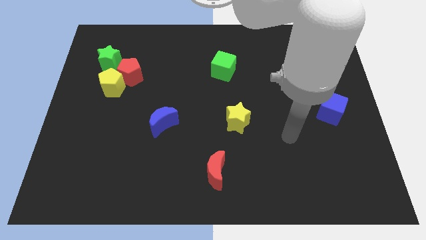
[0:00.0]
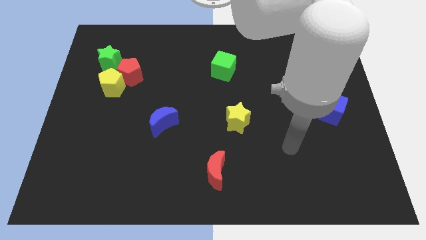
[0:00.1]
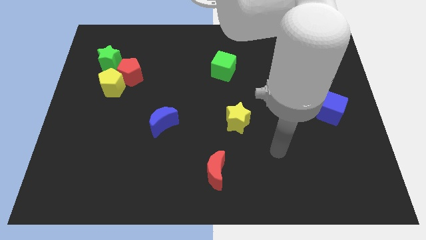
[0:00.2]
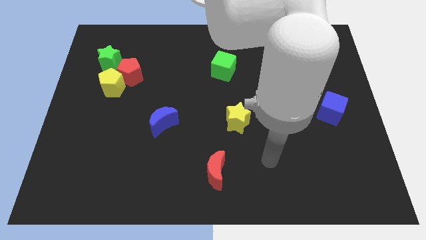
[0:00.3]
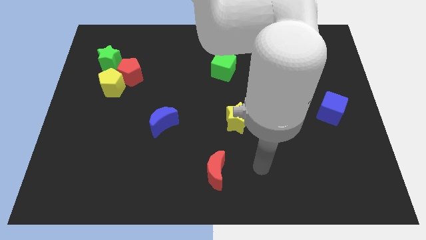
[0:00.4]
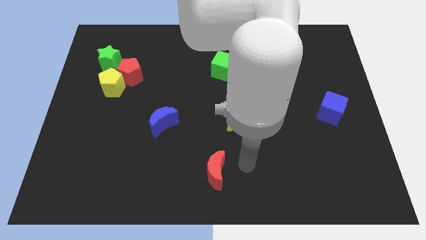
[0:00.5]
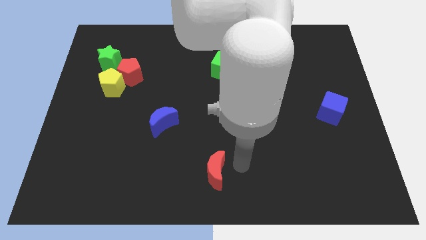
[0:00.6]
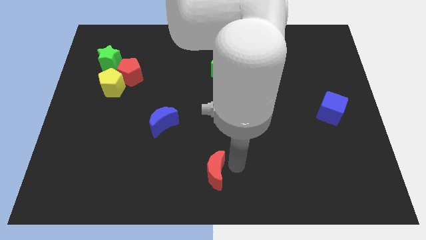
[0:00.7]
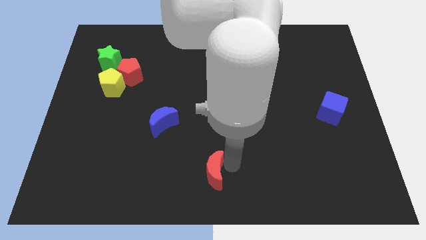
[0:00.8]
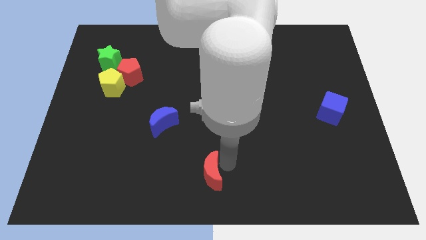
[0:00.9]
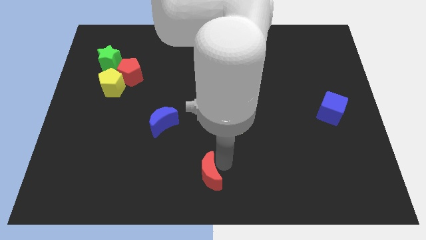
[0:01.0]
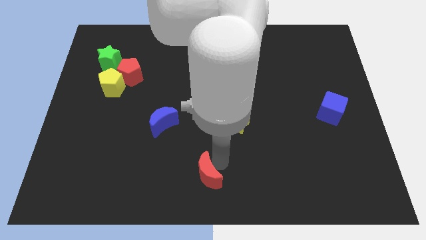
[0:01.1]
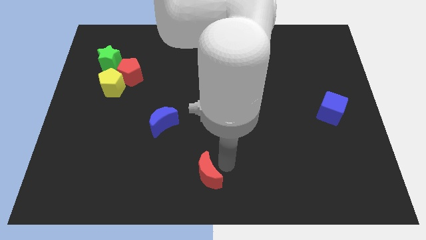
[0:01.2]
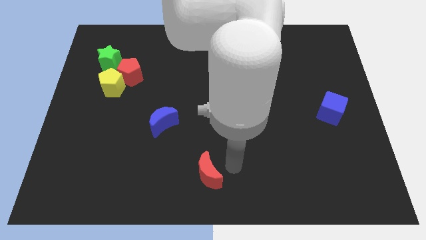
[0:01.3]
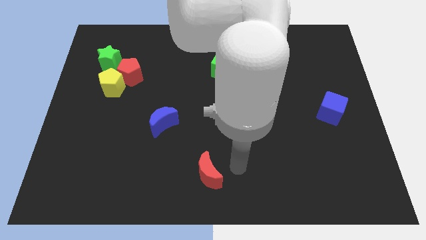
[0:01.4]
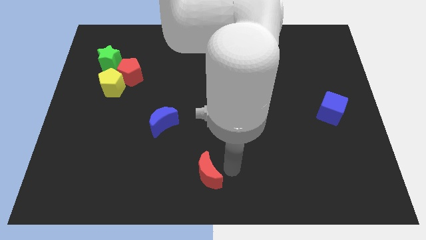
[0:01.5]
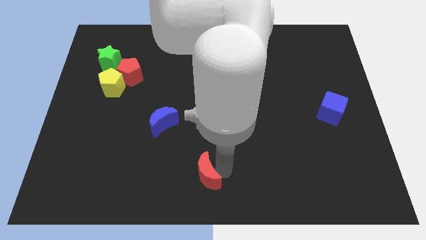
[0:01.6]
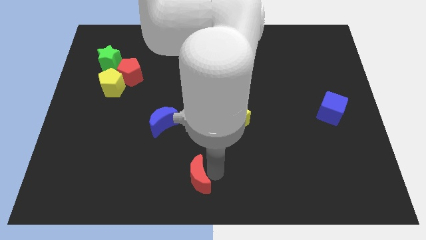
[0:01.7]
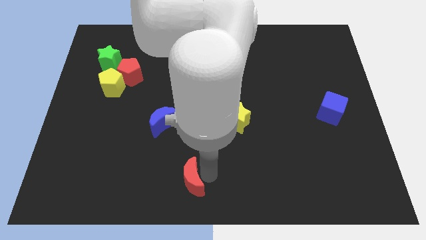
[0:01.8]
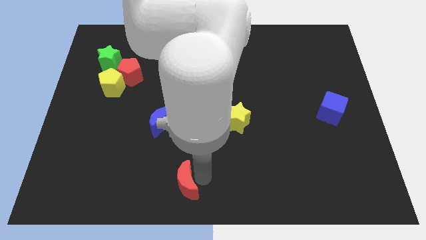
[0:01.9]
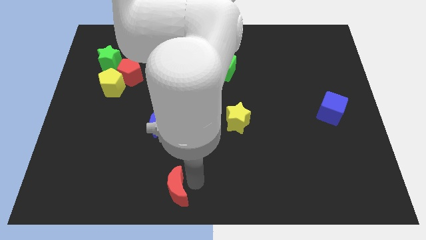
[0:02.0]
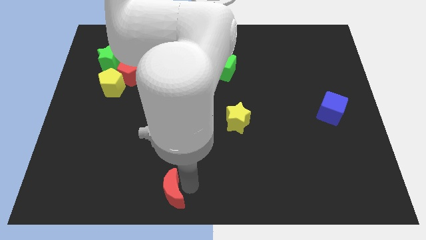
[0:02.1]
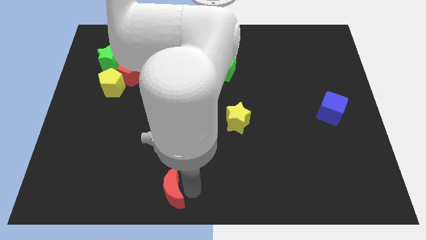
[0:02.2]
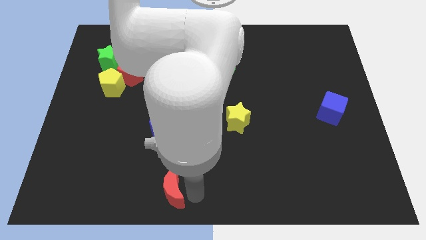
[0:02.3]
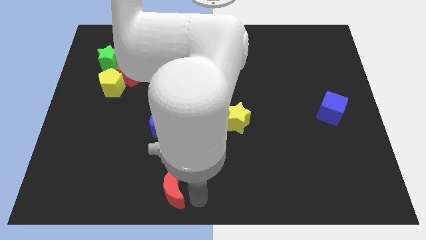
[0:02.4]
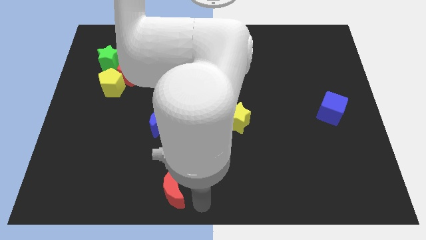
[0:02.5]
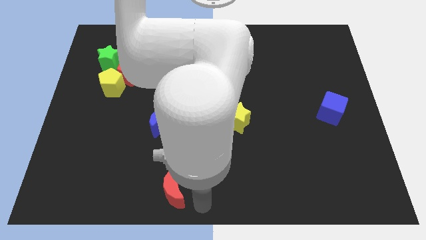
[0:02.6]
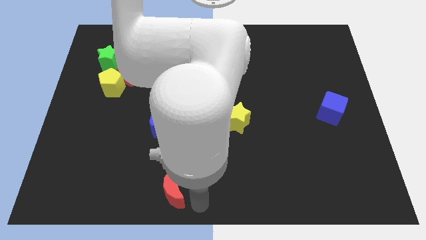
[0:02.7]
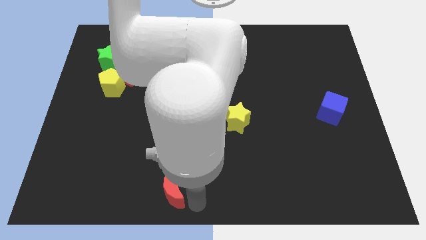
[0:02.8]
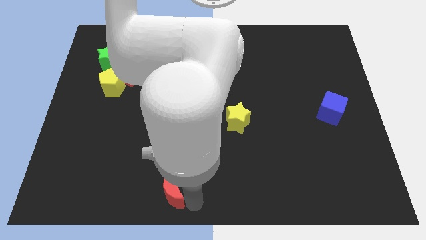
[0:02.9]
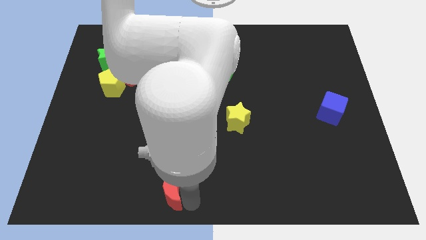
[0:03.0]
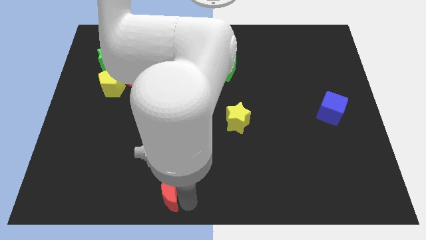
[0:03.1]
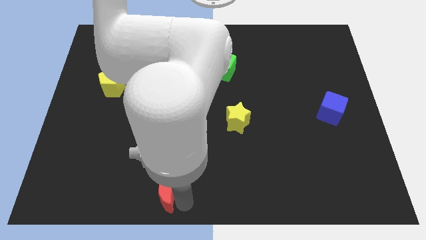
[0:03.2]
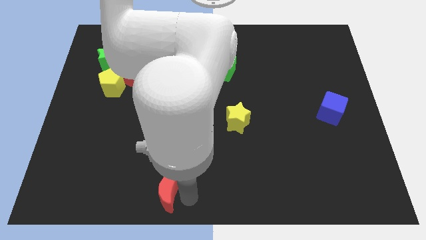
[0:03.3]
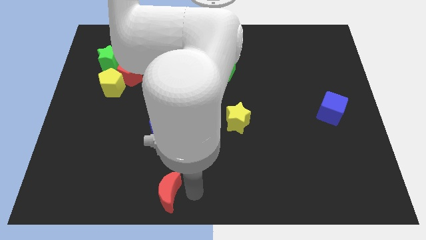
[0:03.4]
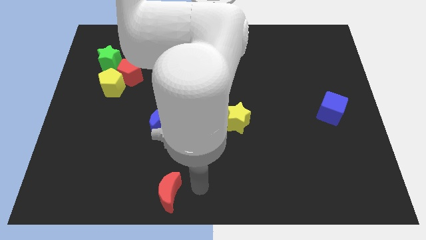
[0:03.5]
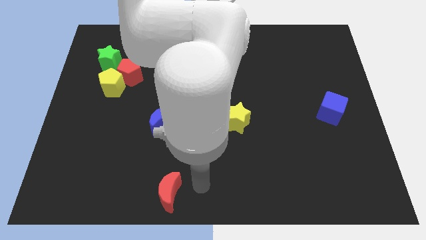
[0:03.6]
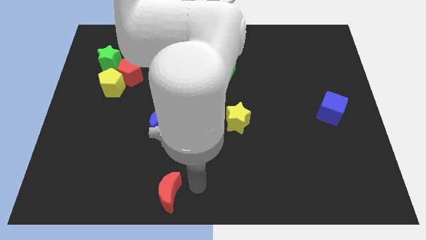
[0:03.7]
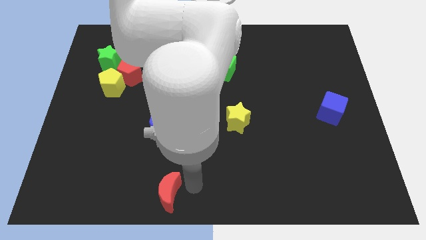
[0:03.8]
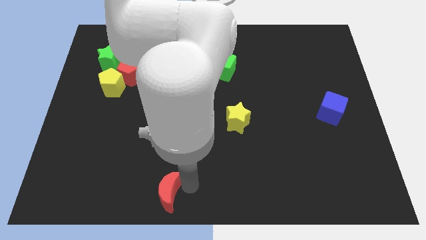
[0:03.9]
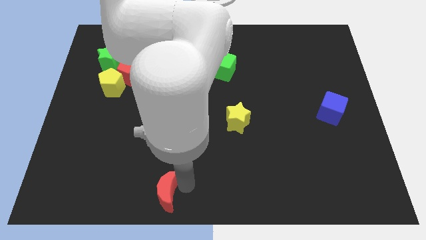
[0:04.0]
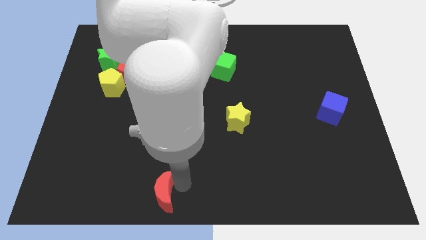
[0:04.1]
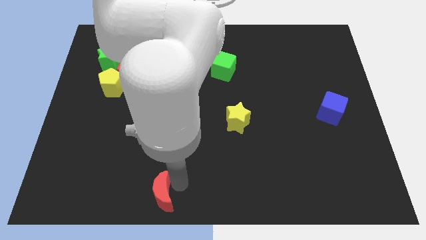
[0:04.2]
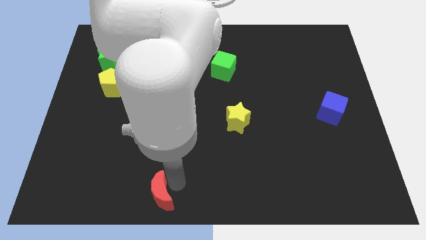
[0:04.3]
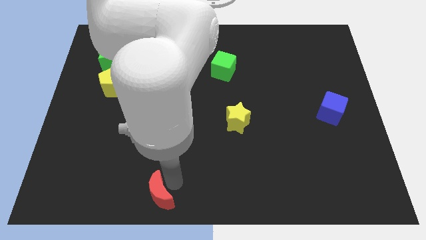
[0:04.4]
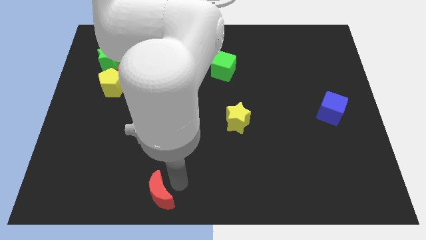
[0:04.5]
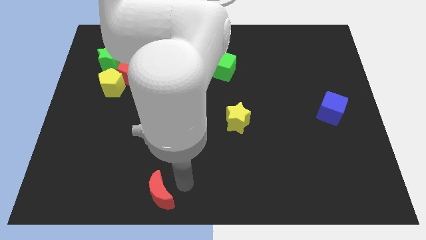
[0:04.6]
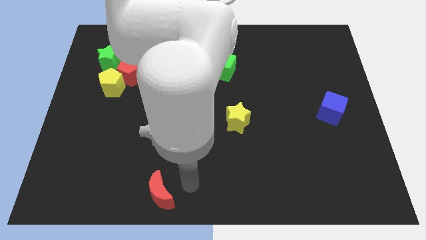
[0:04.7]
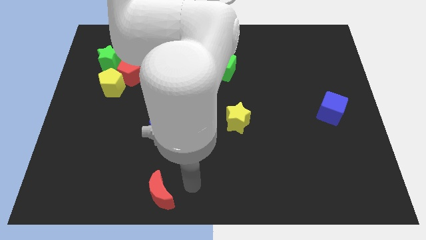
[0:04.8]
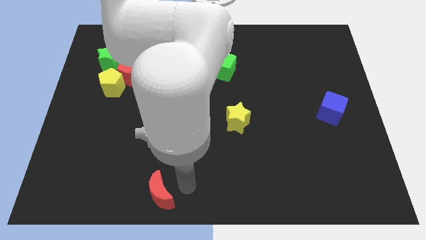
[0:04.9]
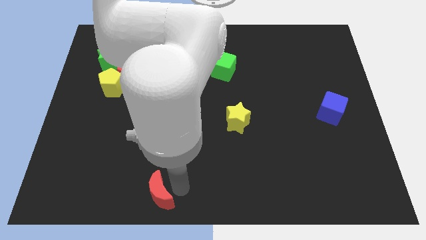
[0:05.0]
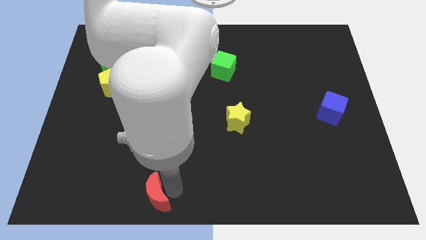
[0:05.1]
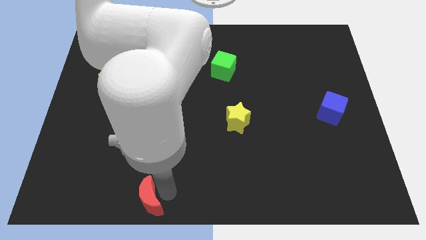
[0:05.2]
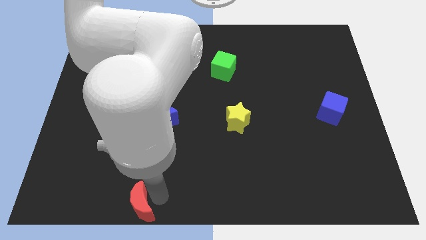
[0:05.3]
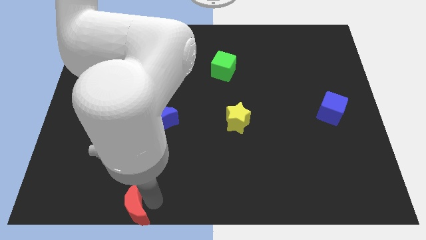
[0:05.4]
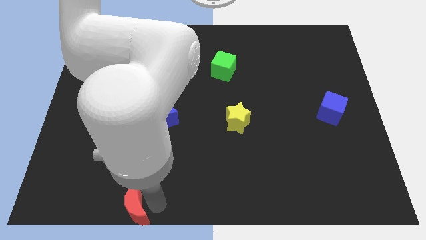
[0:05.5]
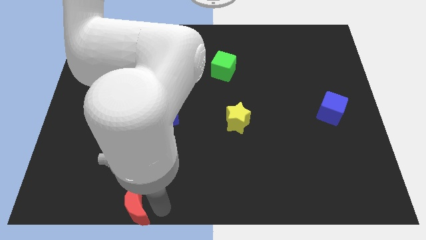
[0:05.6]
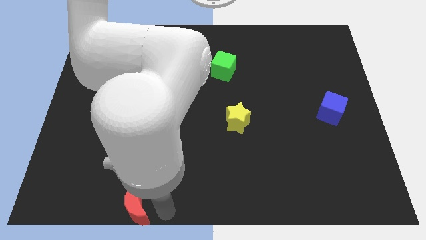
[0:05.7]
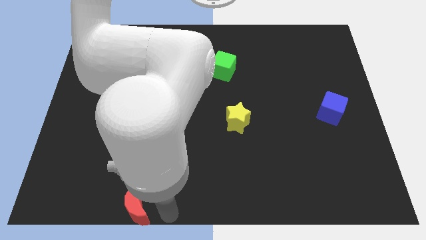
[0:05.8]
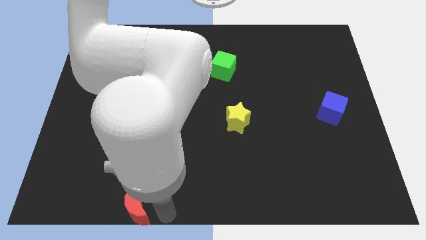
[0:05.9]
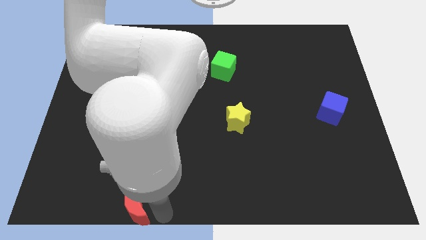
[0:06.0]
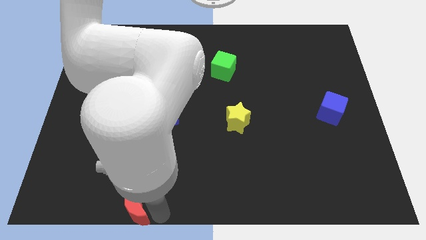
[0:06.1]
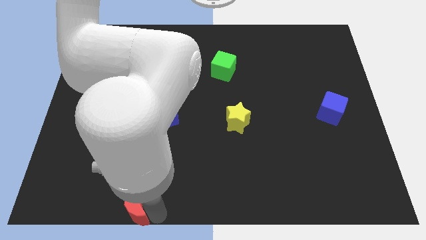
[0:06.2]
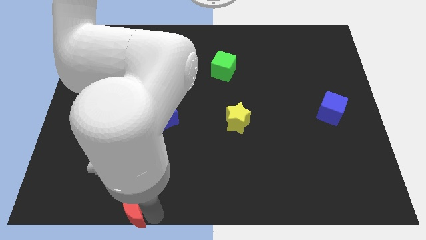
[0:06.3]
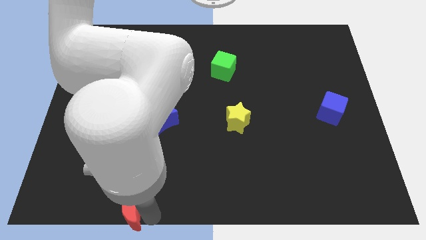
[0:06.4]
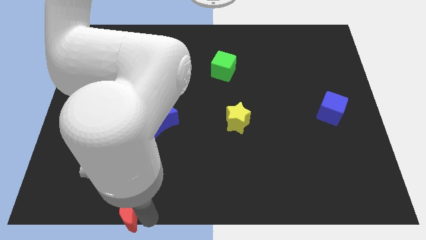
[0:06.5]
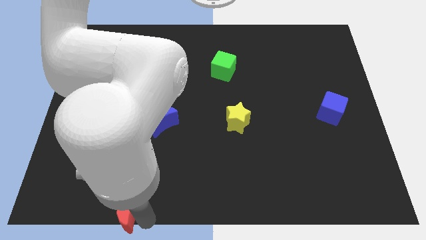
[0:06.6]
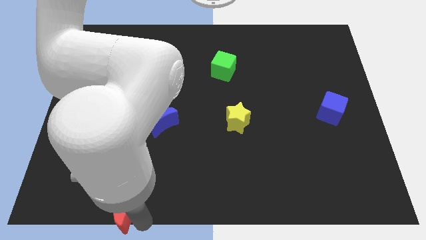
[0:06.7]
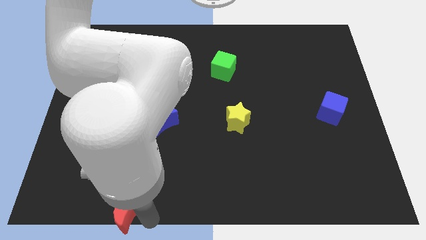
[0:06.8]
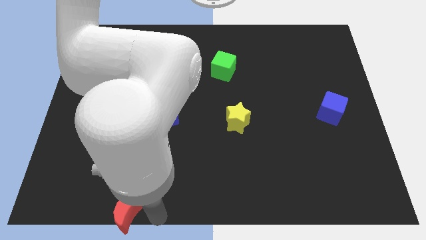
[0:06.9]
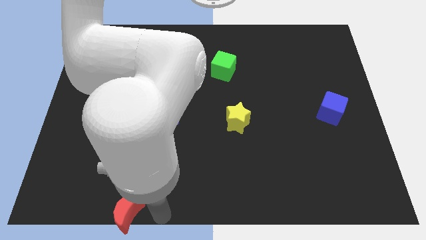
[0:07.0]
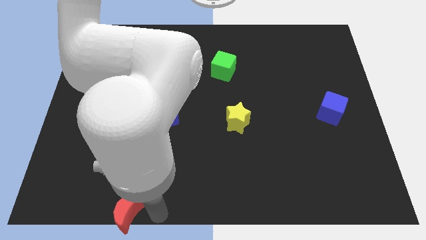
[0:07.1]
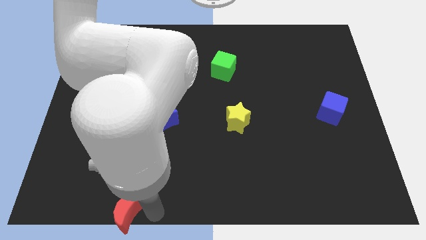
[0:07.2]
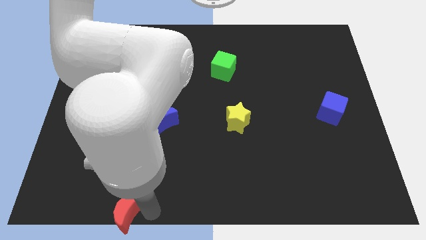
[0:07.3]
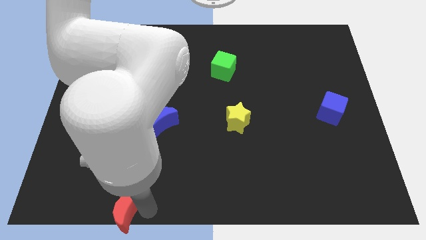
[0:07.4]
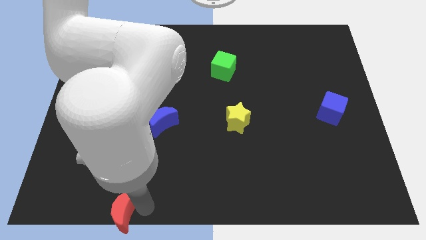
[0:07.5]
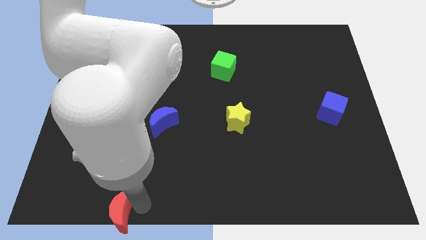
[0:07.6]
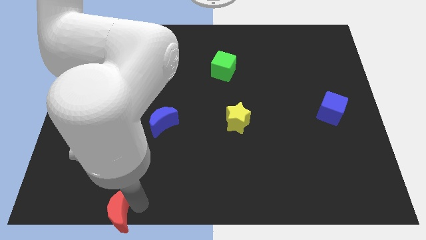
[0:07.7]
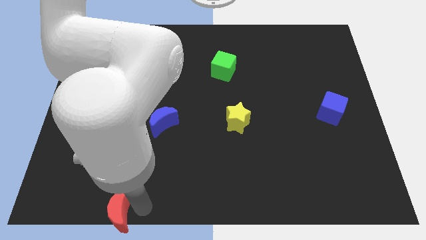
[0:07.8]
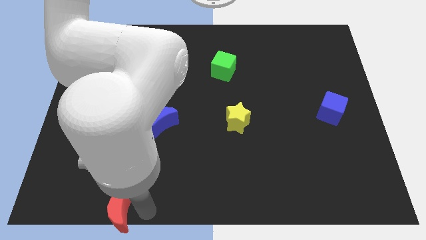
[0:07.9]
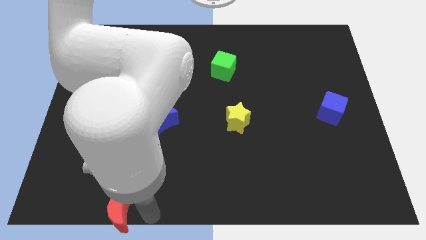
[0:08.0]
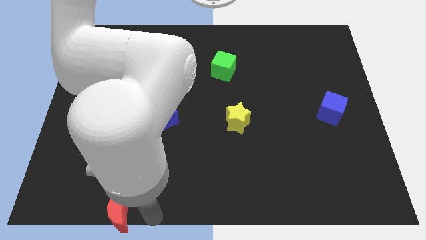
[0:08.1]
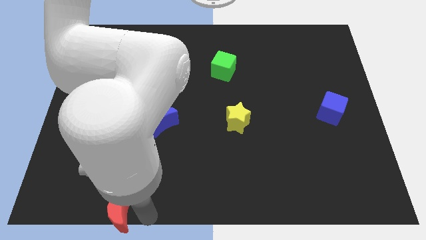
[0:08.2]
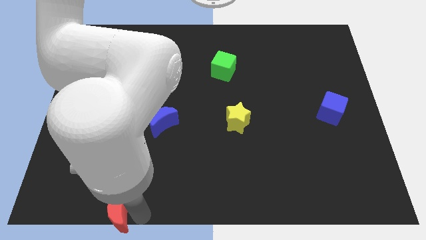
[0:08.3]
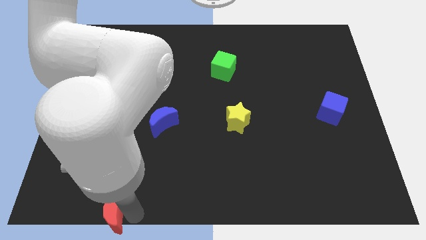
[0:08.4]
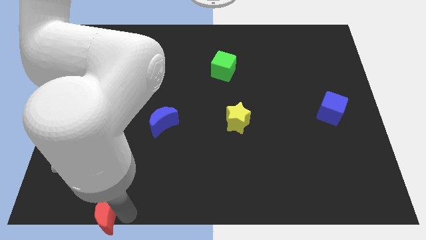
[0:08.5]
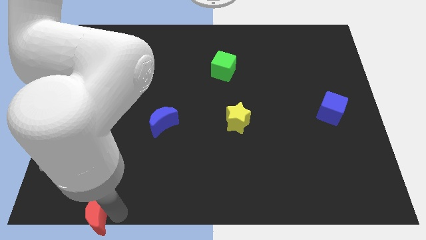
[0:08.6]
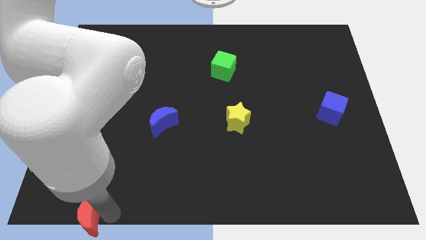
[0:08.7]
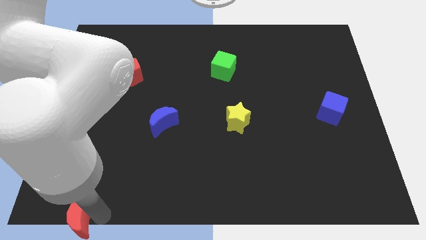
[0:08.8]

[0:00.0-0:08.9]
move the red moon to the bottom left of the board
